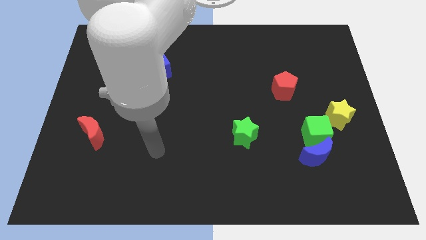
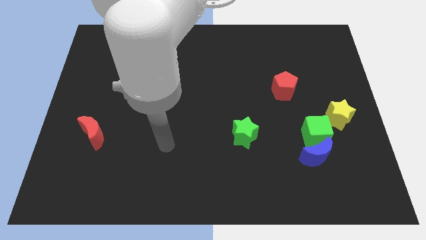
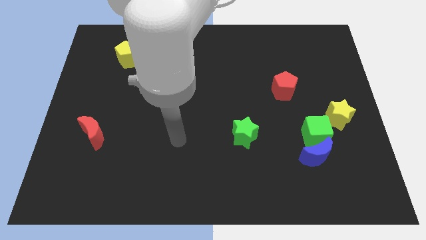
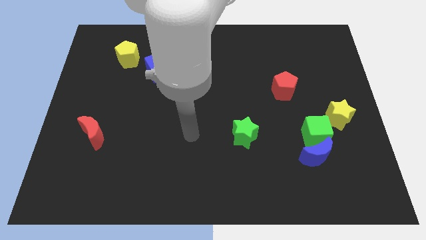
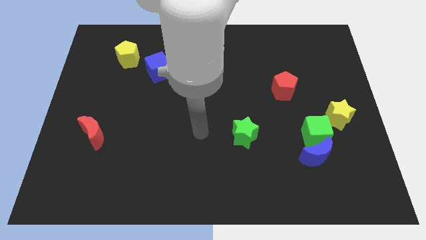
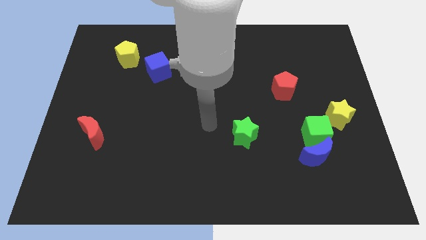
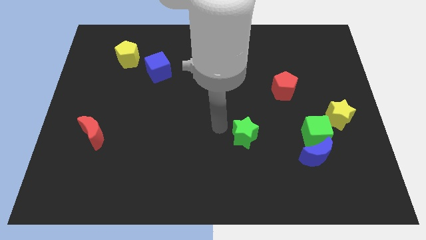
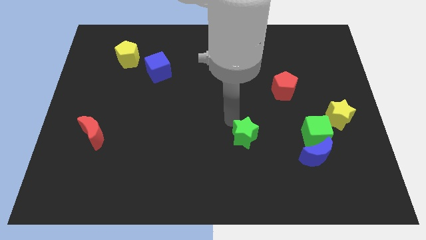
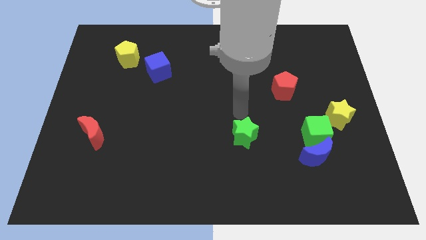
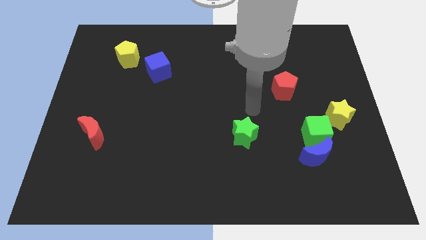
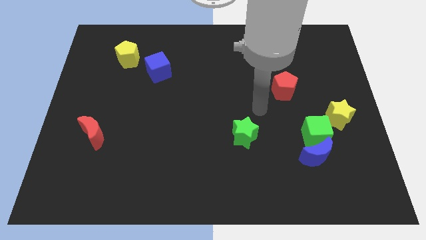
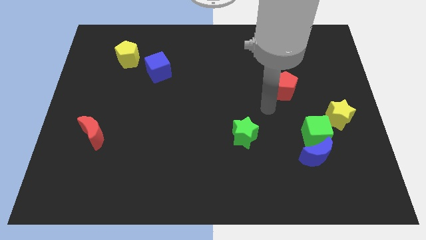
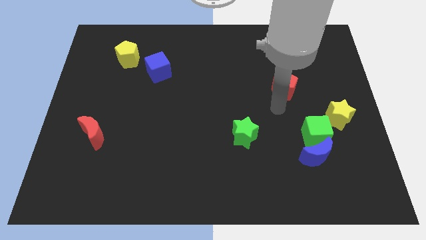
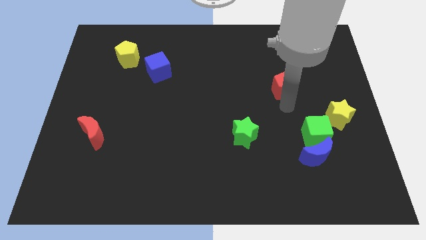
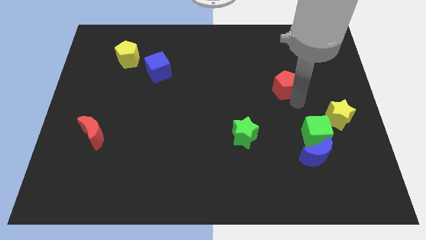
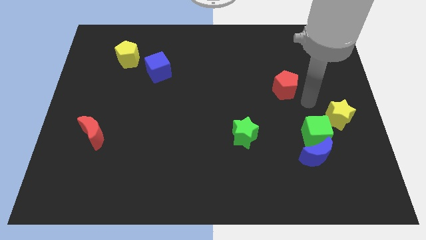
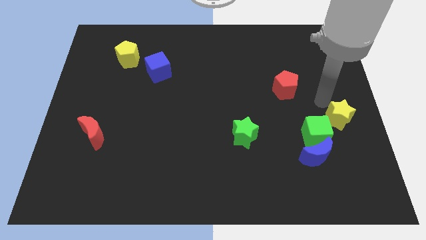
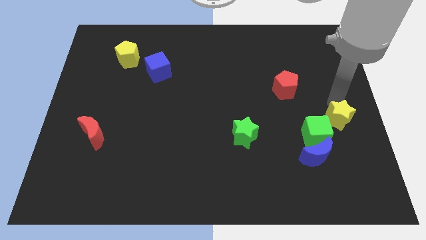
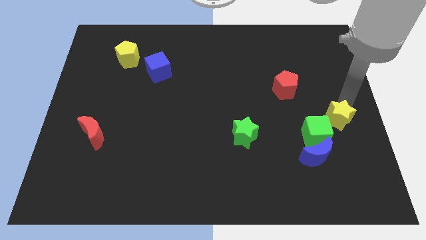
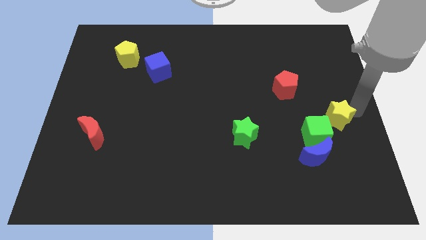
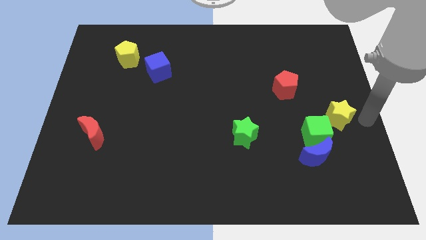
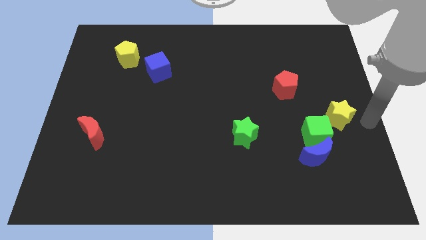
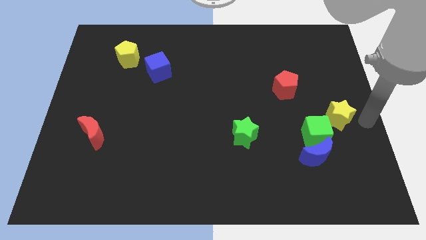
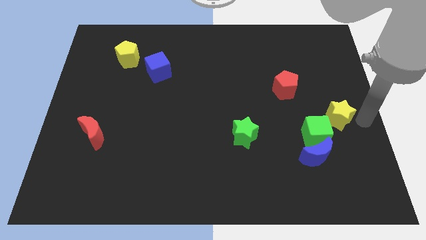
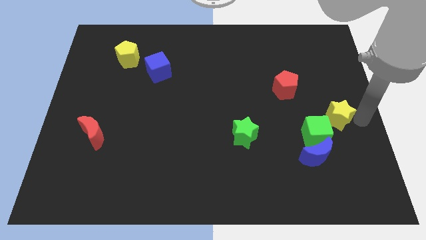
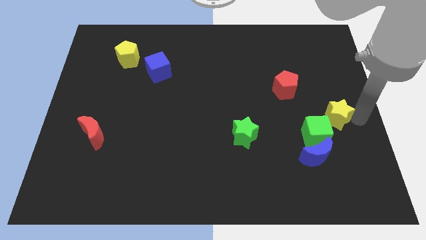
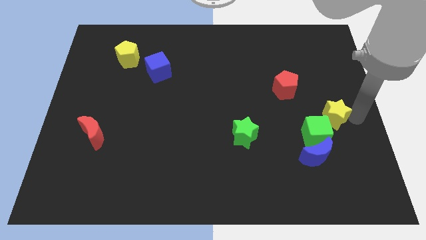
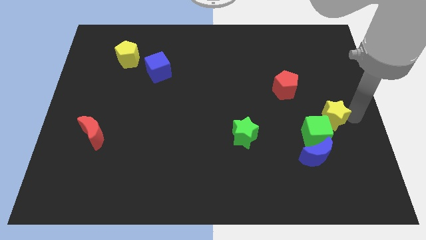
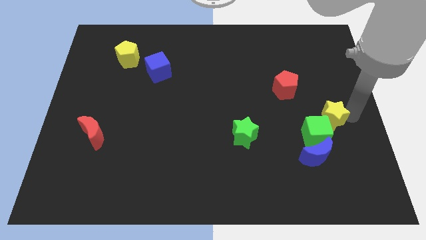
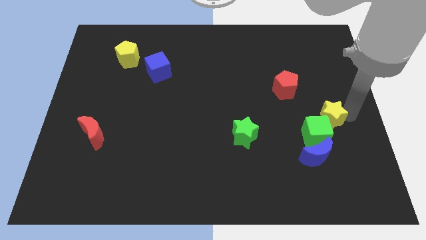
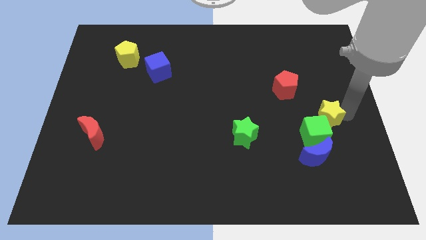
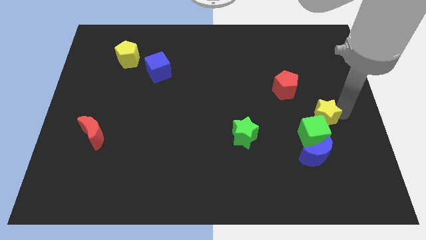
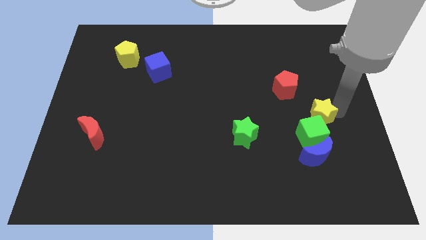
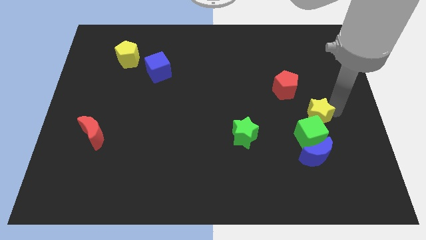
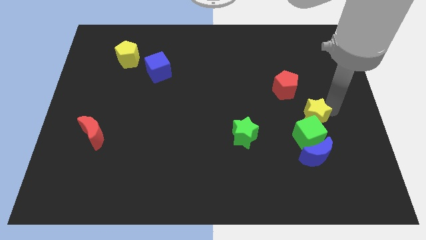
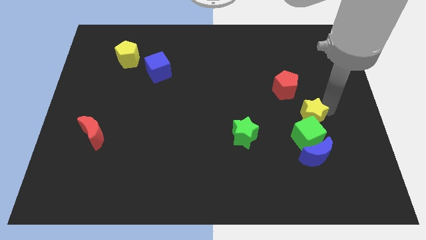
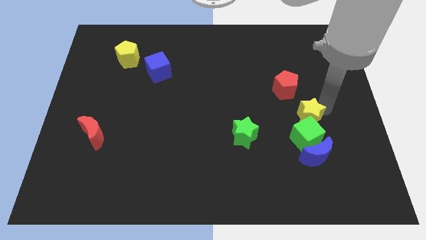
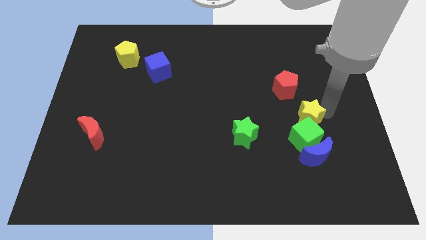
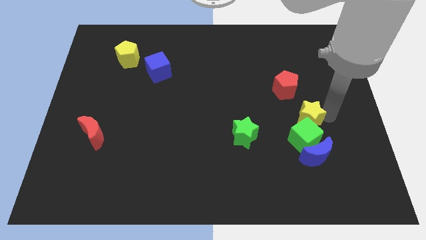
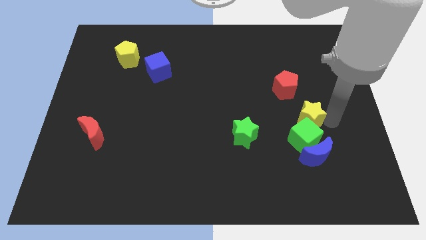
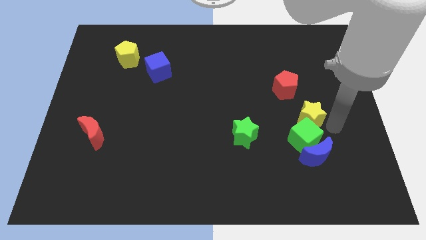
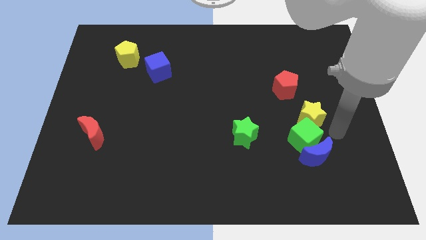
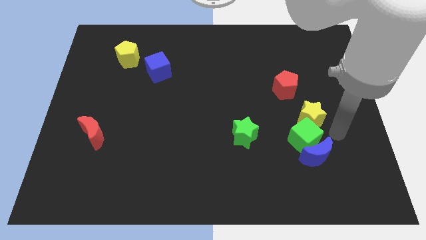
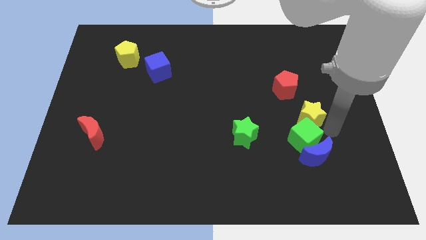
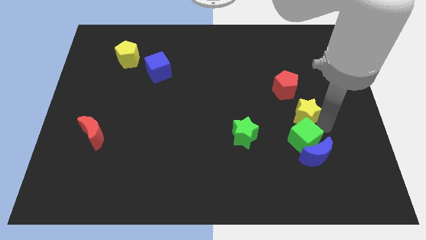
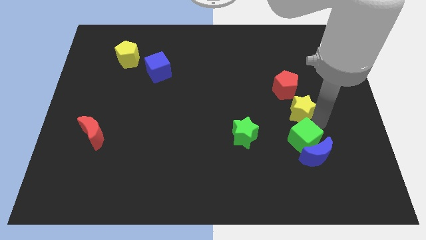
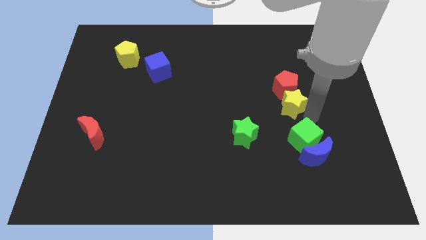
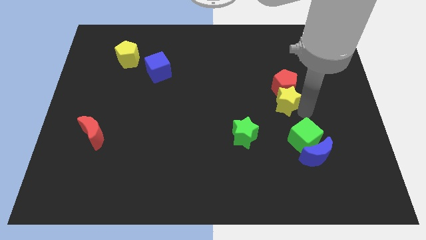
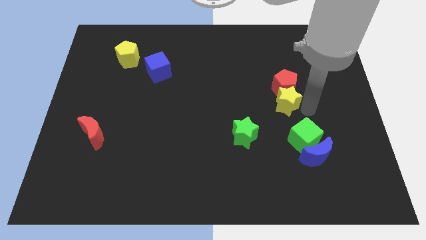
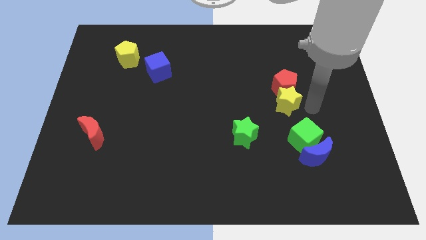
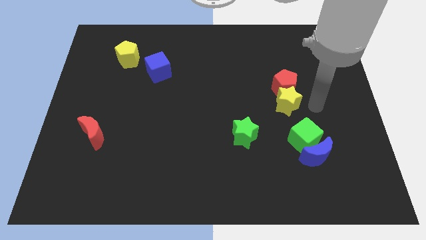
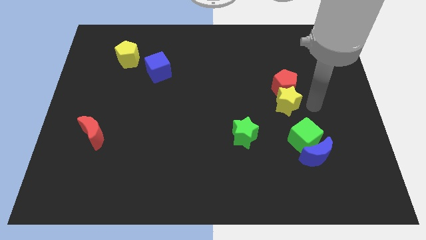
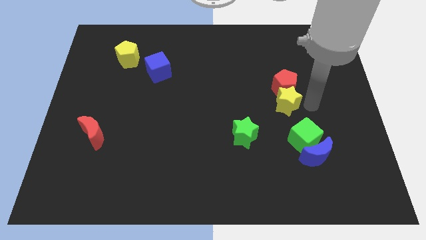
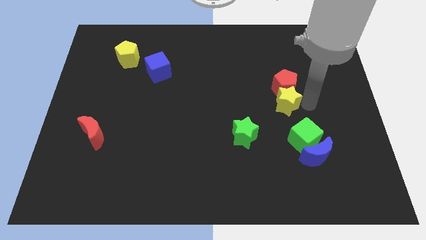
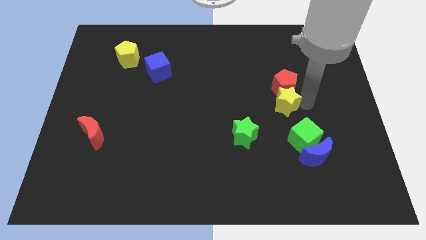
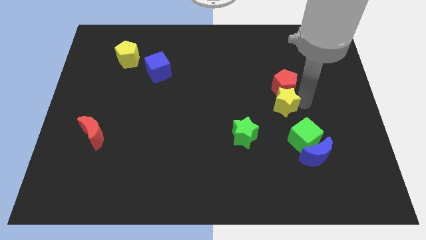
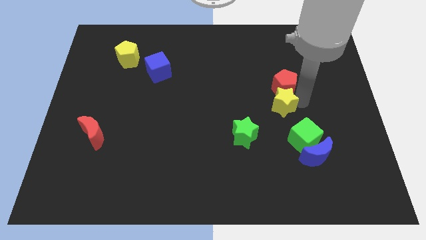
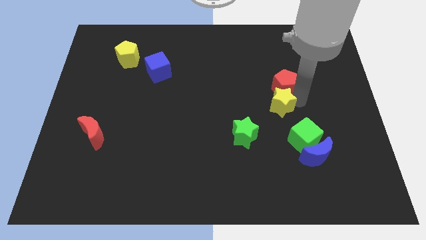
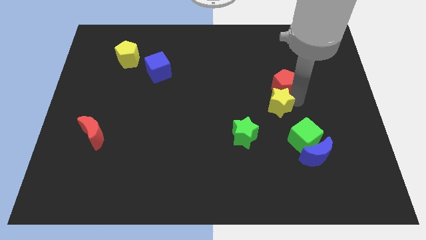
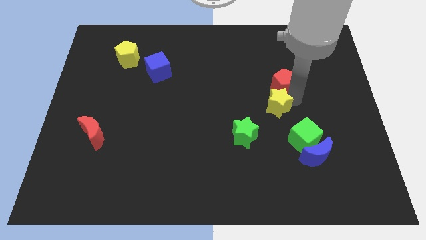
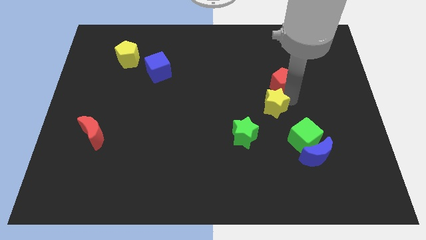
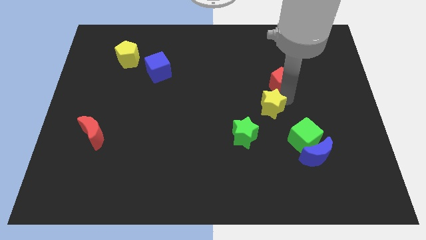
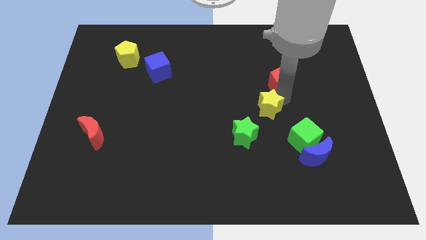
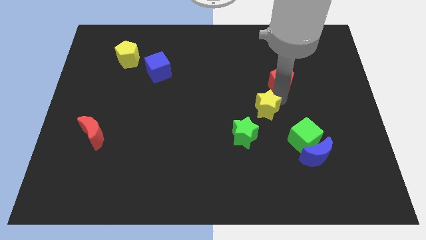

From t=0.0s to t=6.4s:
push the yellow star to the center of the board
